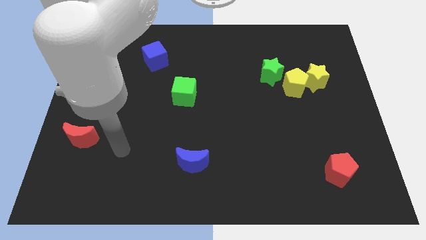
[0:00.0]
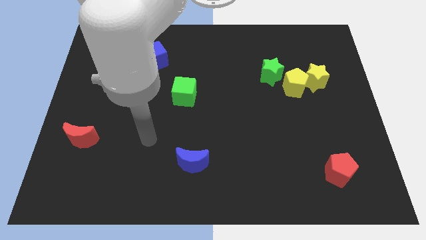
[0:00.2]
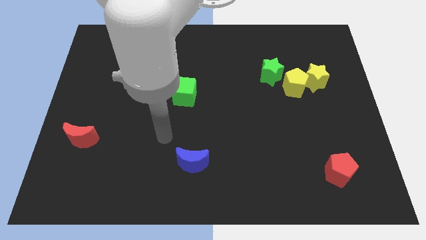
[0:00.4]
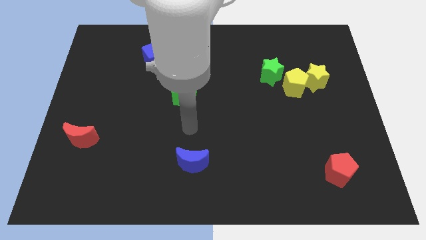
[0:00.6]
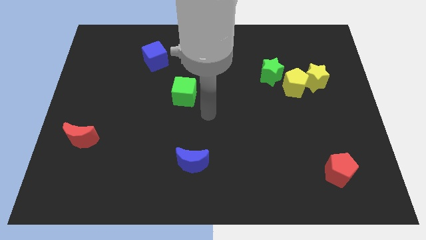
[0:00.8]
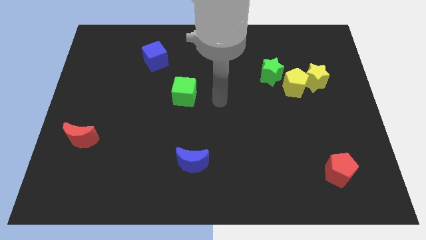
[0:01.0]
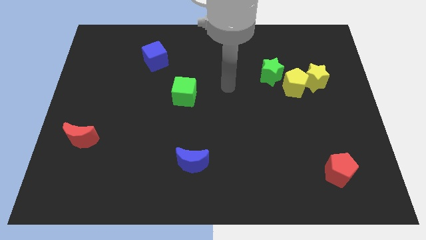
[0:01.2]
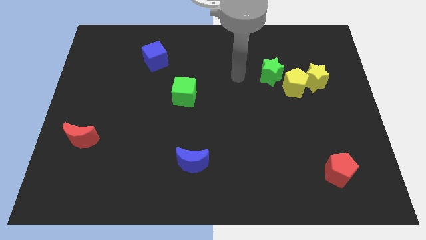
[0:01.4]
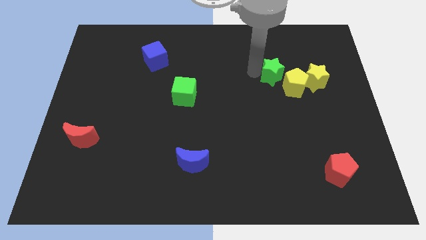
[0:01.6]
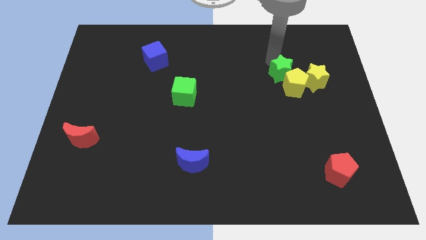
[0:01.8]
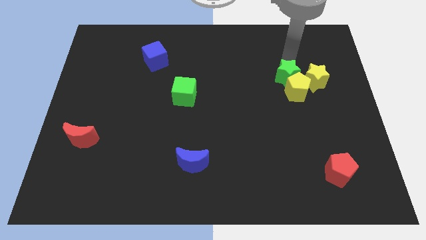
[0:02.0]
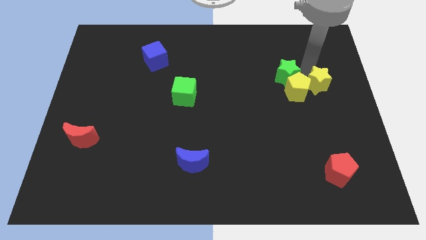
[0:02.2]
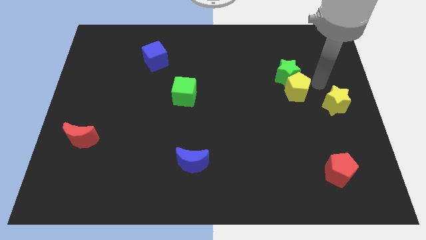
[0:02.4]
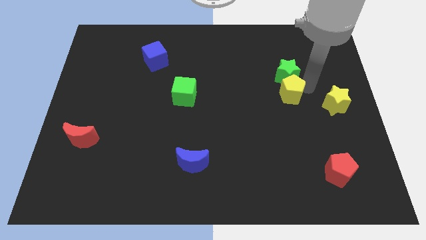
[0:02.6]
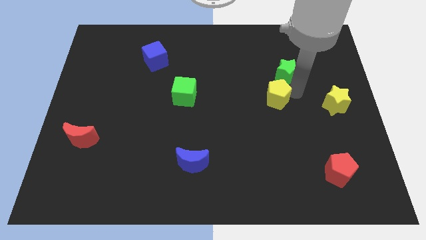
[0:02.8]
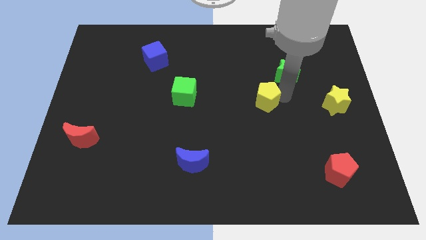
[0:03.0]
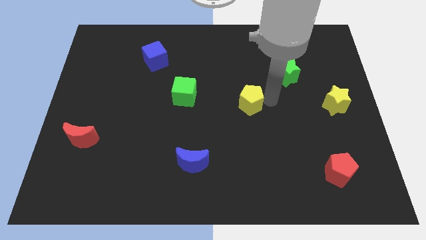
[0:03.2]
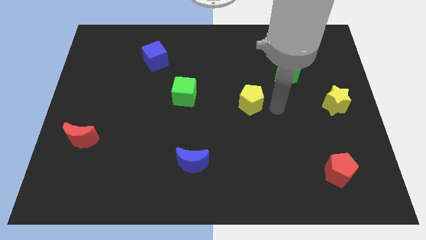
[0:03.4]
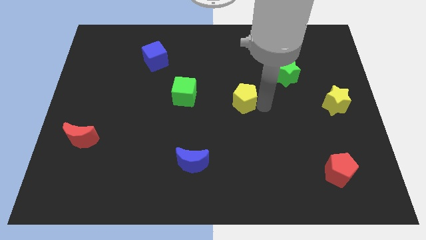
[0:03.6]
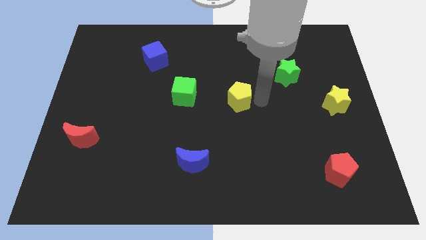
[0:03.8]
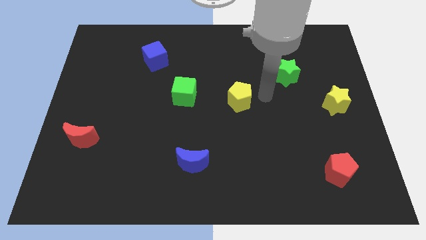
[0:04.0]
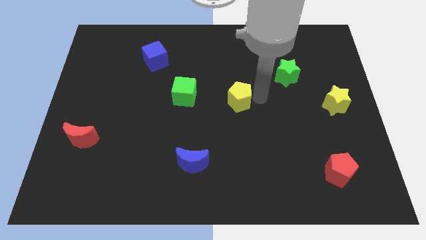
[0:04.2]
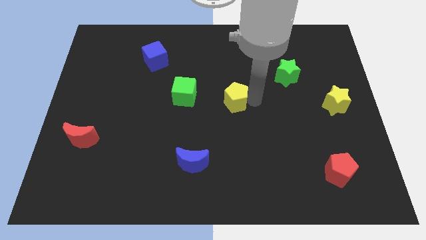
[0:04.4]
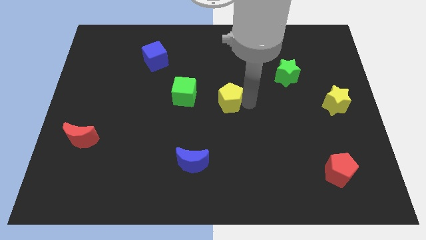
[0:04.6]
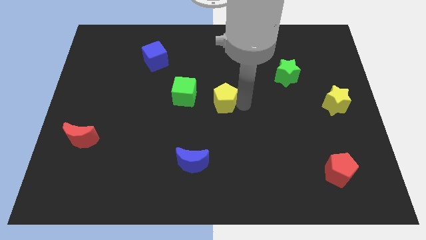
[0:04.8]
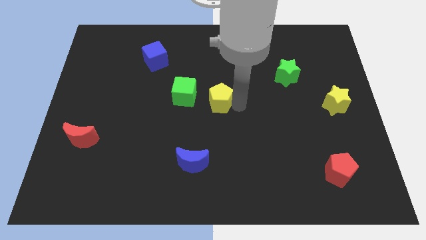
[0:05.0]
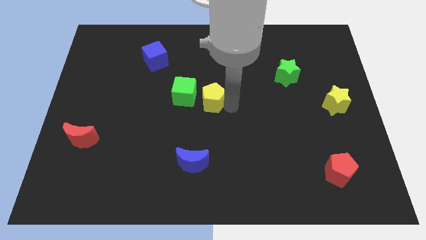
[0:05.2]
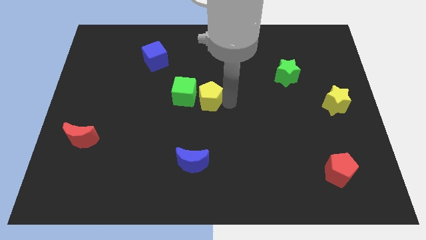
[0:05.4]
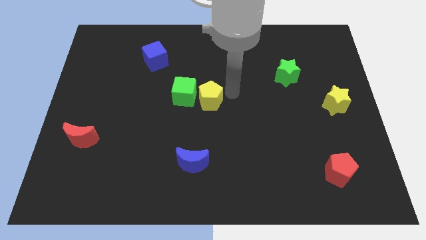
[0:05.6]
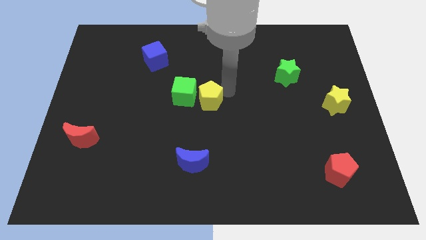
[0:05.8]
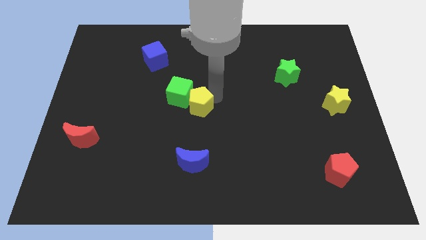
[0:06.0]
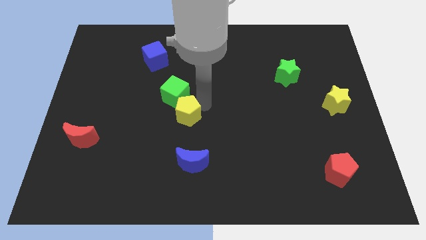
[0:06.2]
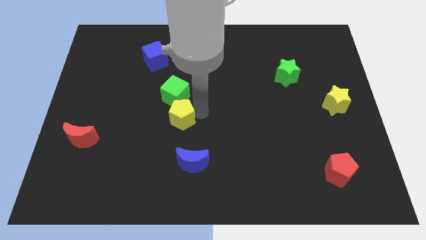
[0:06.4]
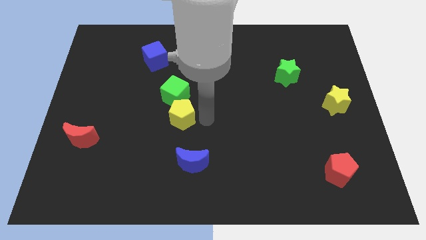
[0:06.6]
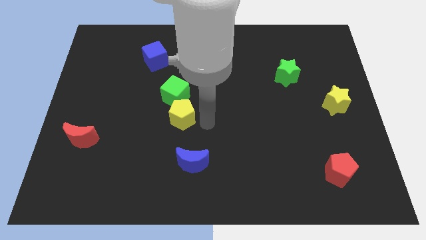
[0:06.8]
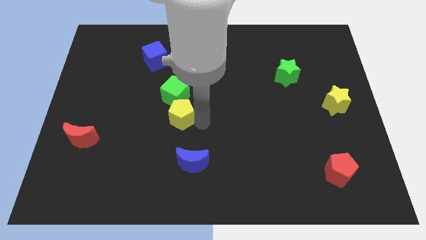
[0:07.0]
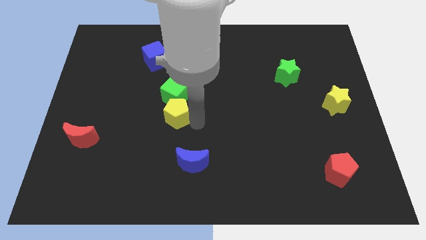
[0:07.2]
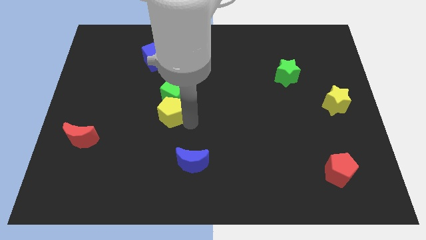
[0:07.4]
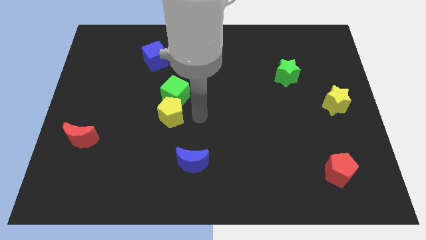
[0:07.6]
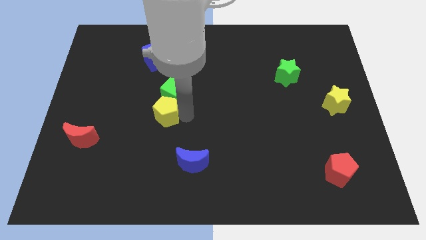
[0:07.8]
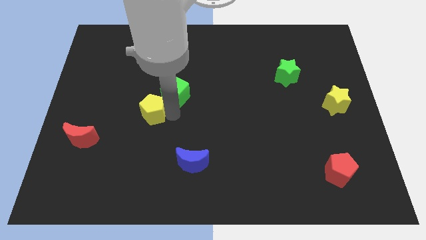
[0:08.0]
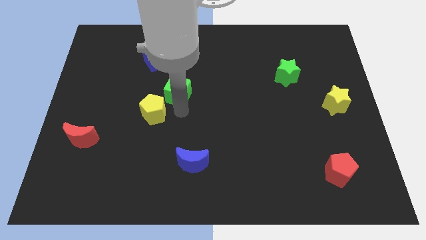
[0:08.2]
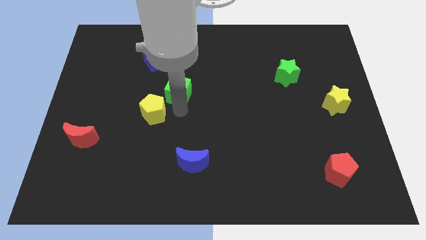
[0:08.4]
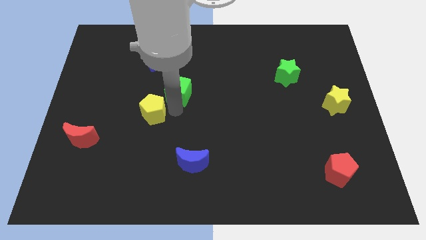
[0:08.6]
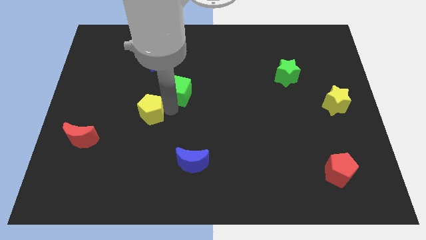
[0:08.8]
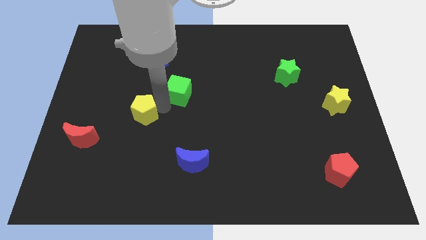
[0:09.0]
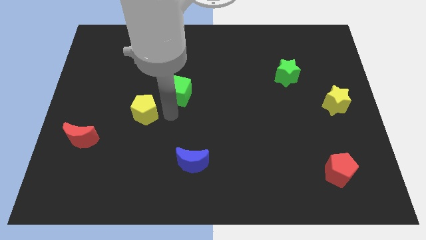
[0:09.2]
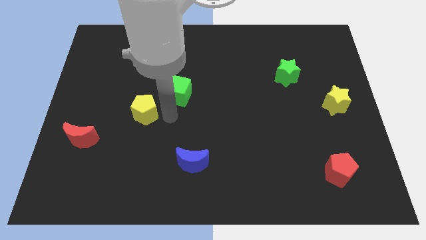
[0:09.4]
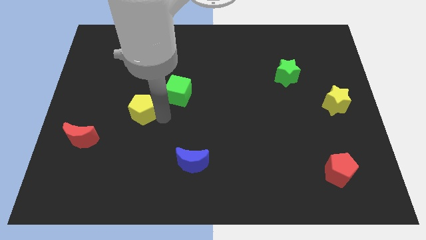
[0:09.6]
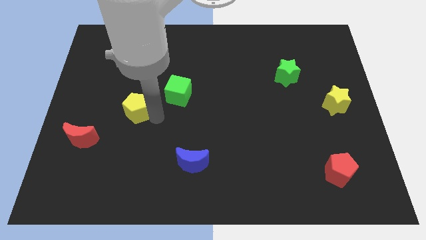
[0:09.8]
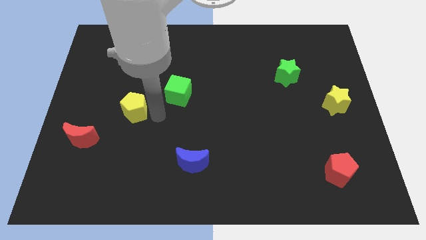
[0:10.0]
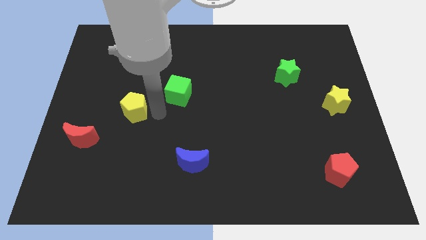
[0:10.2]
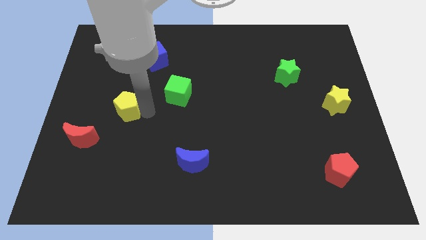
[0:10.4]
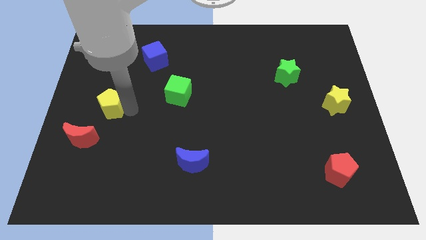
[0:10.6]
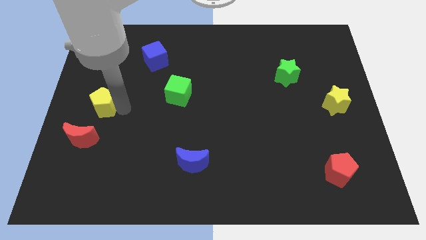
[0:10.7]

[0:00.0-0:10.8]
slide the yellow pentagon above the red moon

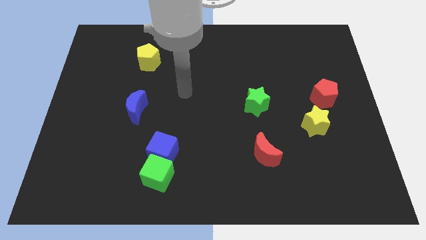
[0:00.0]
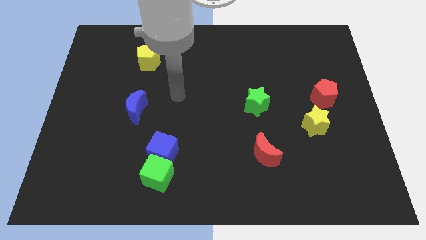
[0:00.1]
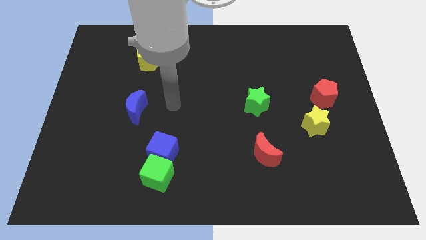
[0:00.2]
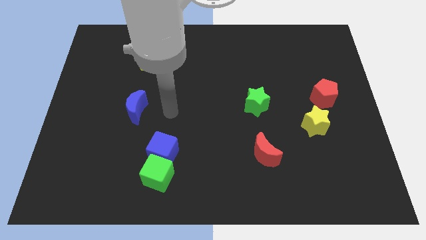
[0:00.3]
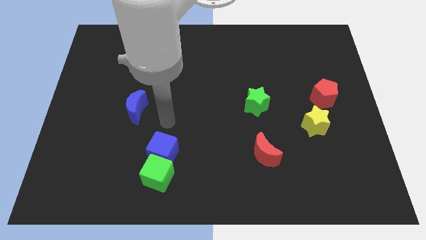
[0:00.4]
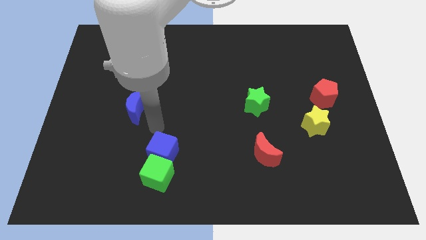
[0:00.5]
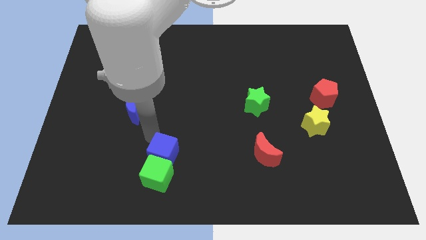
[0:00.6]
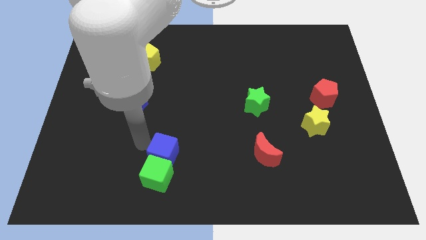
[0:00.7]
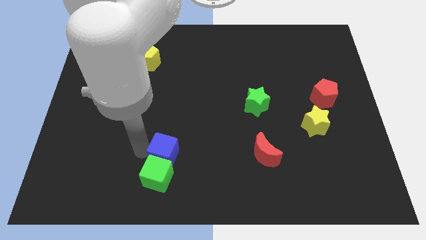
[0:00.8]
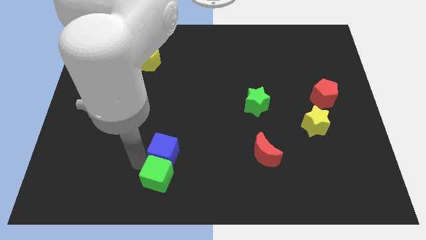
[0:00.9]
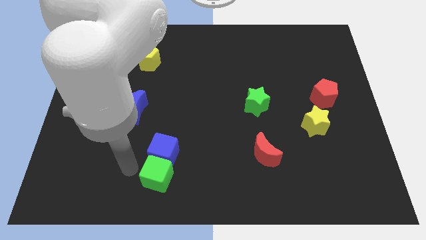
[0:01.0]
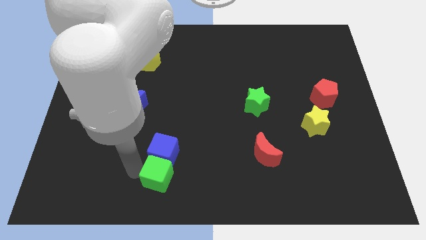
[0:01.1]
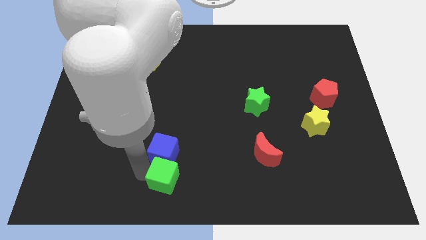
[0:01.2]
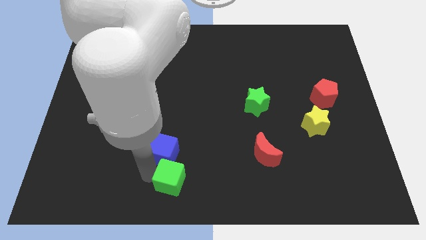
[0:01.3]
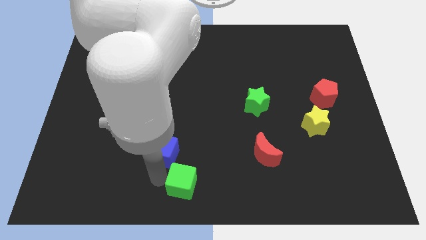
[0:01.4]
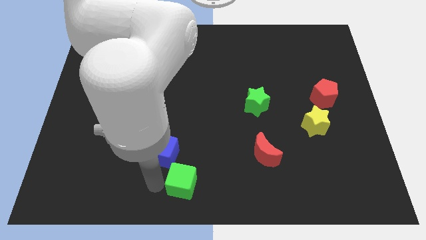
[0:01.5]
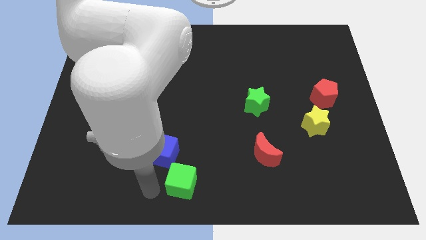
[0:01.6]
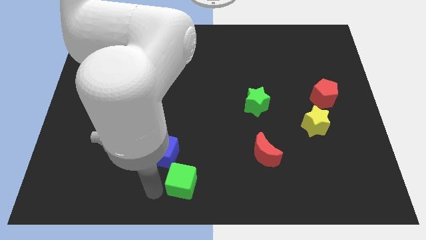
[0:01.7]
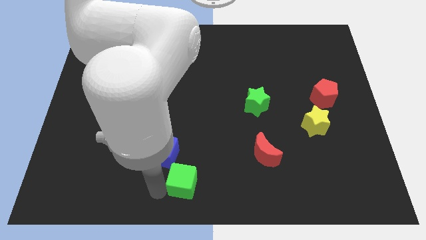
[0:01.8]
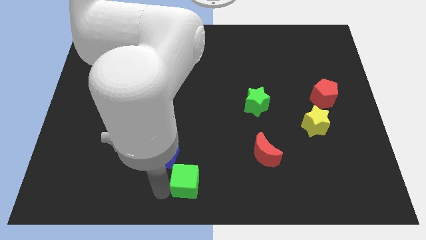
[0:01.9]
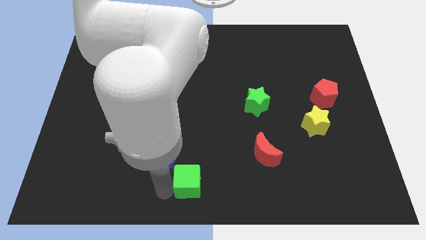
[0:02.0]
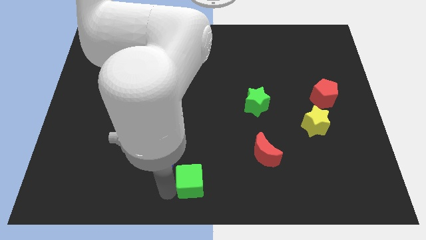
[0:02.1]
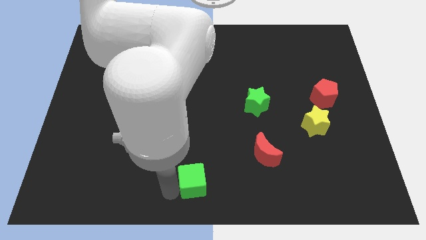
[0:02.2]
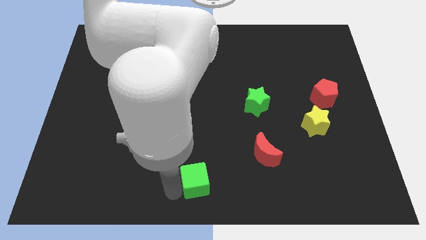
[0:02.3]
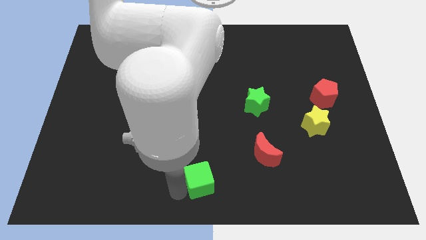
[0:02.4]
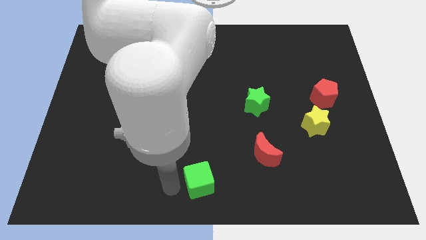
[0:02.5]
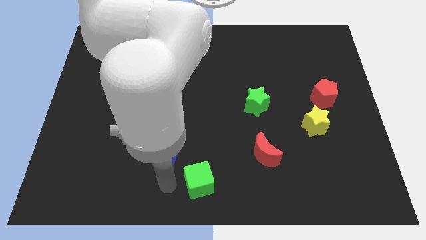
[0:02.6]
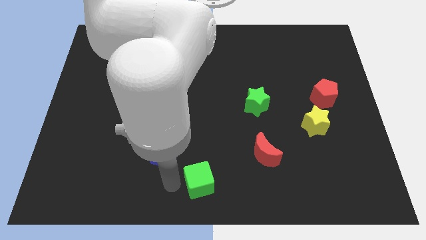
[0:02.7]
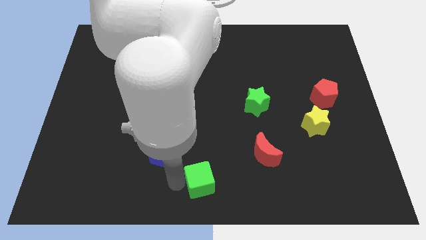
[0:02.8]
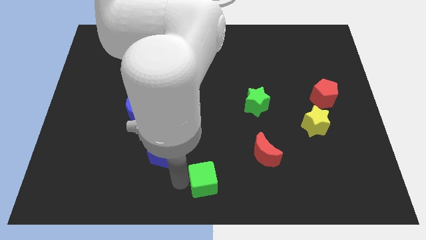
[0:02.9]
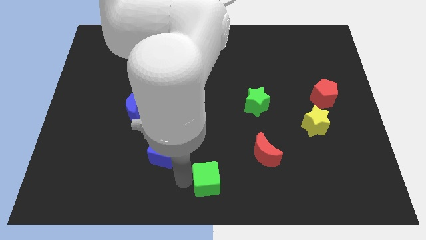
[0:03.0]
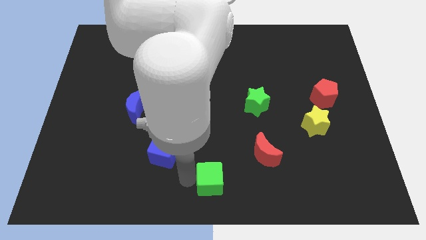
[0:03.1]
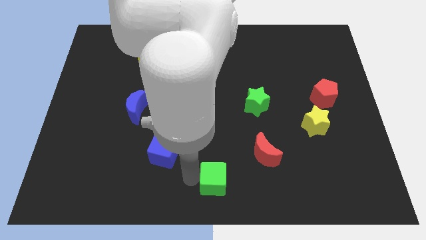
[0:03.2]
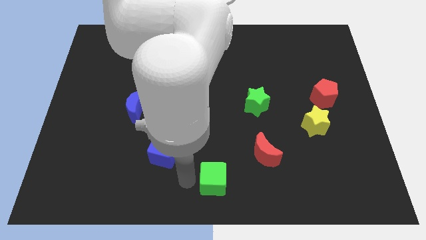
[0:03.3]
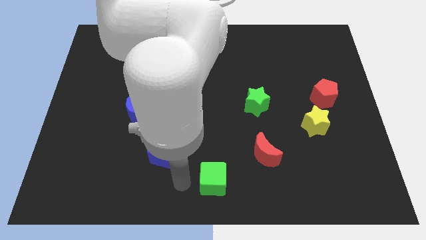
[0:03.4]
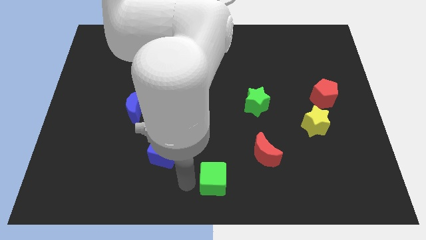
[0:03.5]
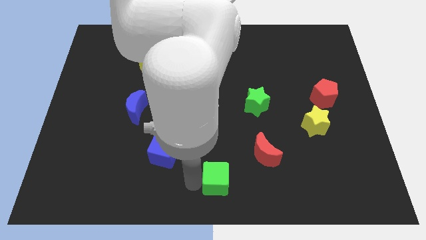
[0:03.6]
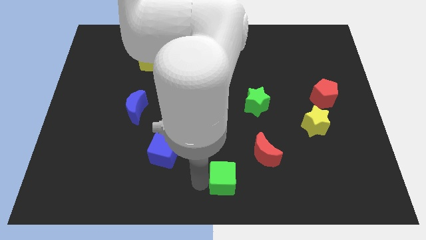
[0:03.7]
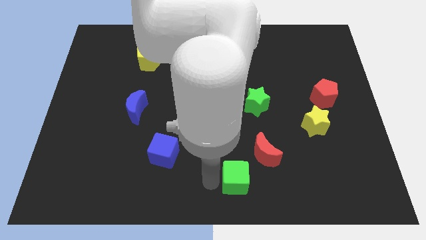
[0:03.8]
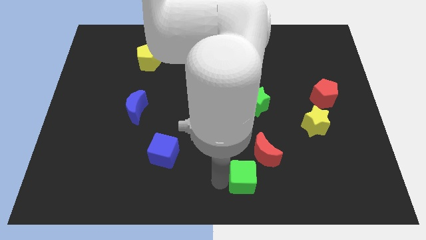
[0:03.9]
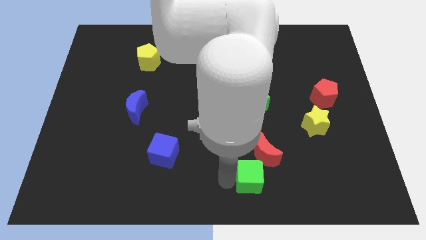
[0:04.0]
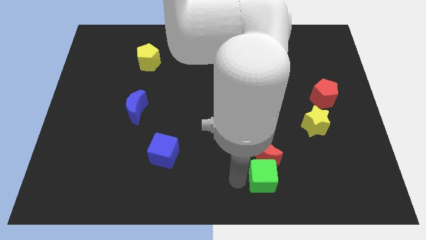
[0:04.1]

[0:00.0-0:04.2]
push the green cube to the bottom right side of the red moon
